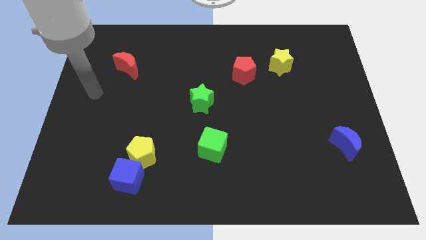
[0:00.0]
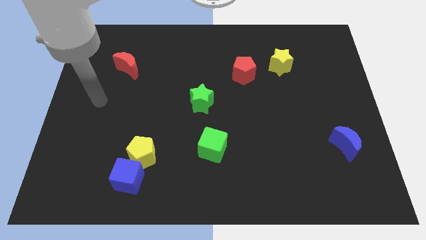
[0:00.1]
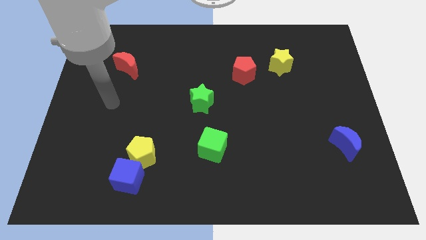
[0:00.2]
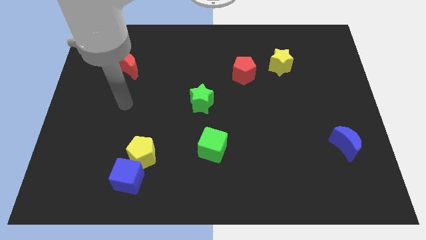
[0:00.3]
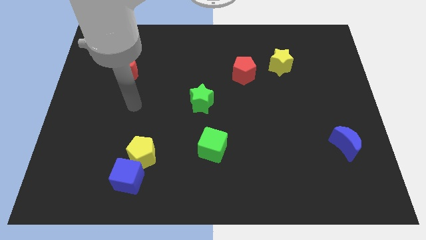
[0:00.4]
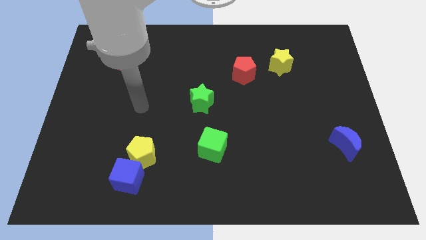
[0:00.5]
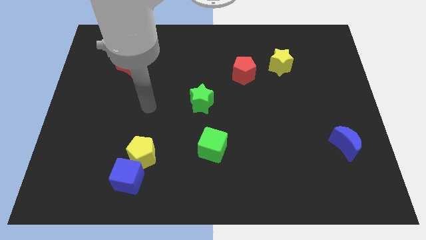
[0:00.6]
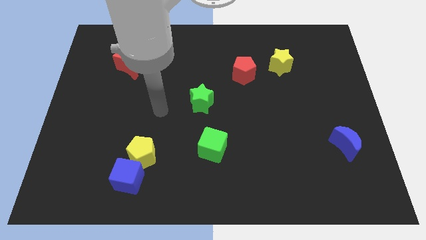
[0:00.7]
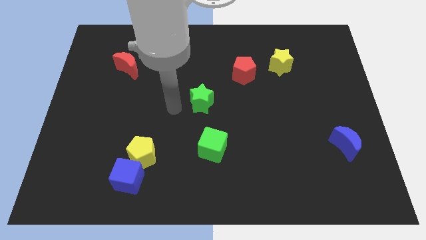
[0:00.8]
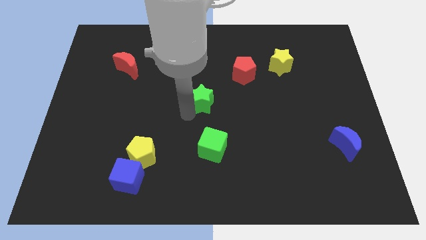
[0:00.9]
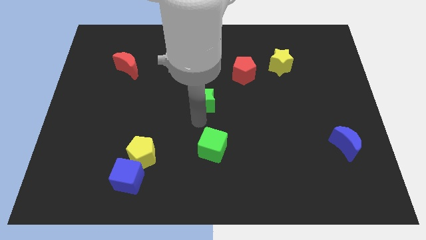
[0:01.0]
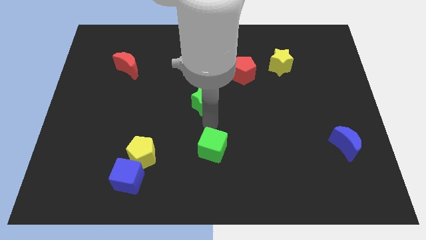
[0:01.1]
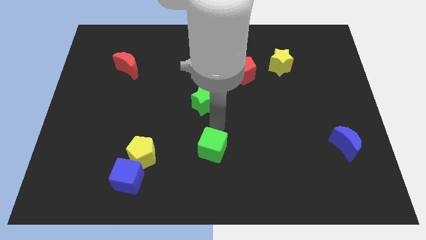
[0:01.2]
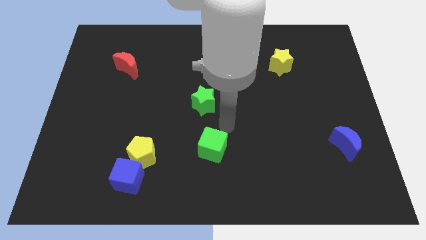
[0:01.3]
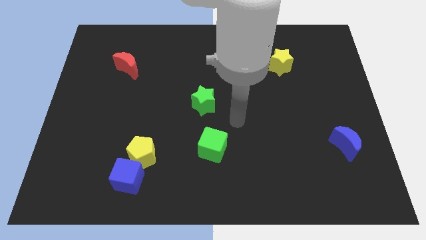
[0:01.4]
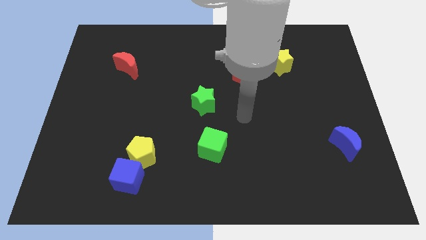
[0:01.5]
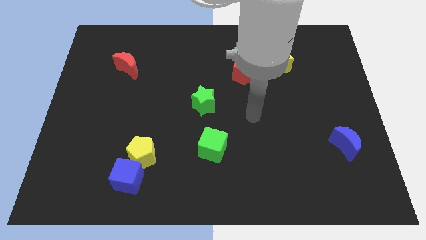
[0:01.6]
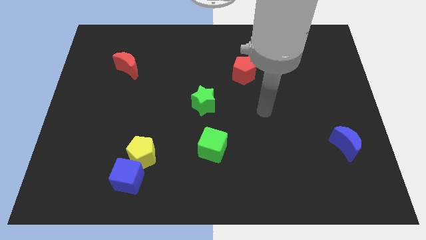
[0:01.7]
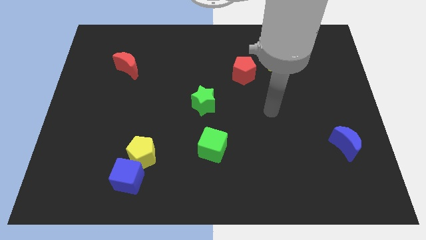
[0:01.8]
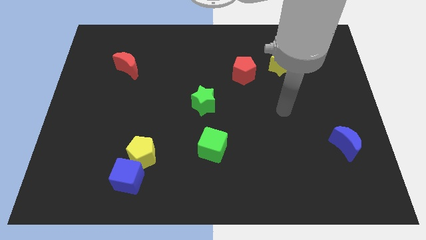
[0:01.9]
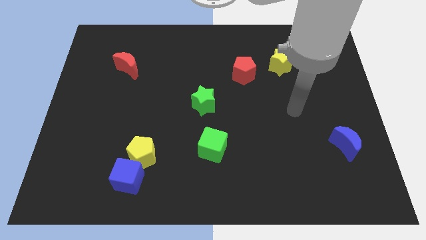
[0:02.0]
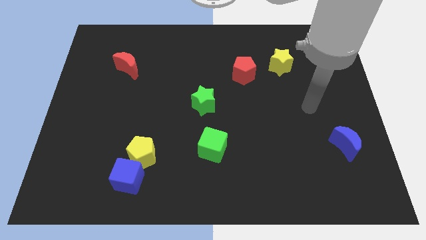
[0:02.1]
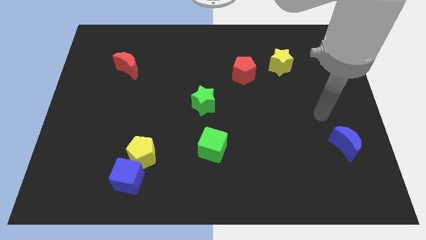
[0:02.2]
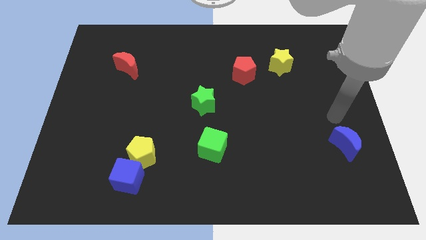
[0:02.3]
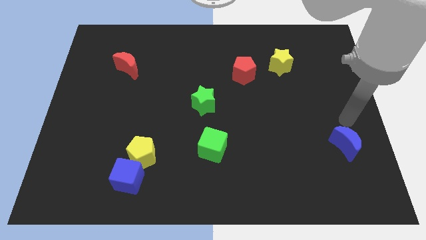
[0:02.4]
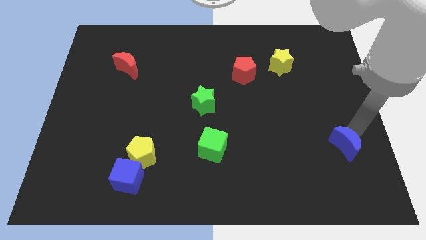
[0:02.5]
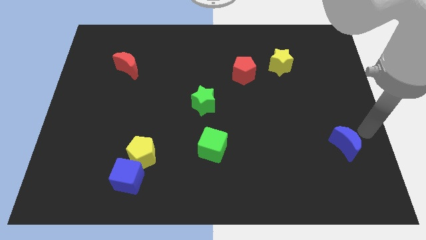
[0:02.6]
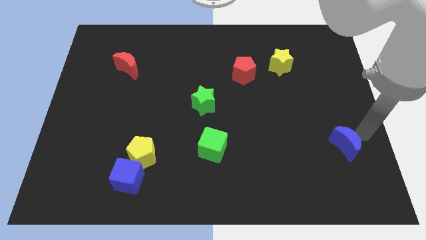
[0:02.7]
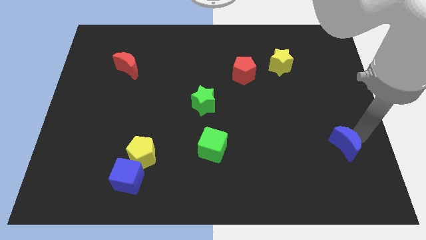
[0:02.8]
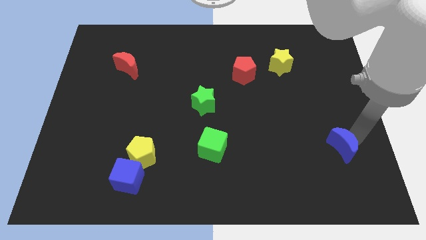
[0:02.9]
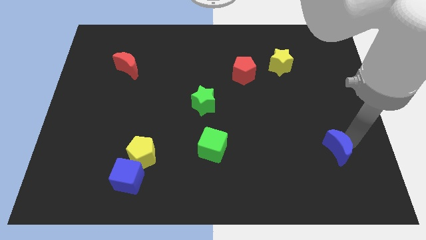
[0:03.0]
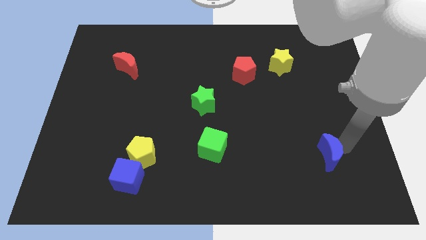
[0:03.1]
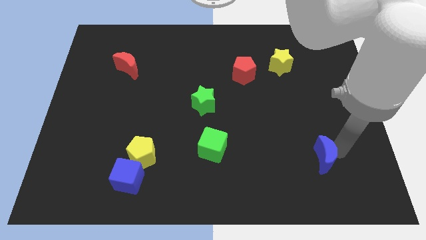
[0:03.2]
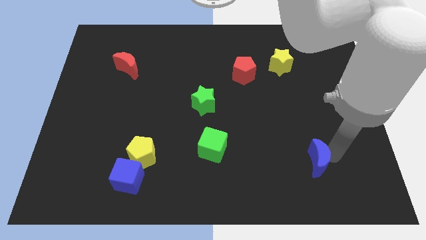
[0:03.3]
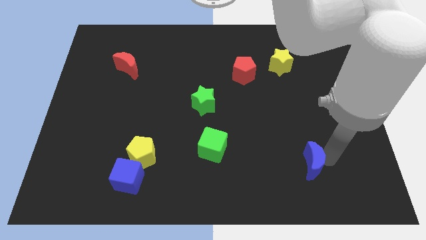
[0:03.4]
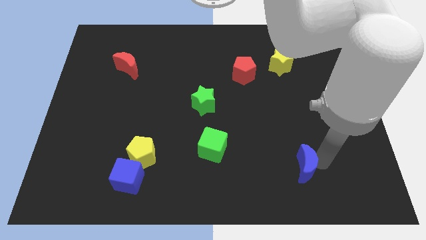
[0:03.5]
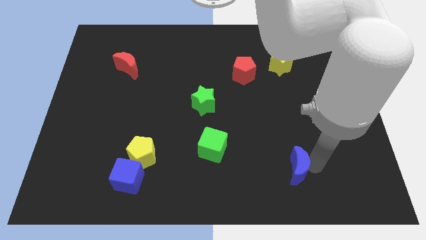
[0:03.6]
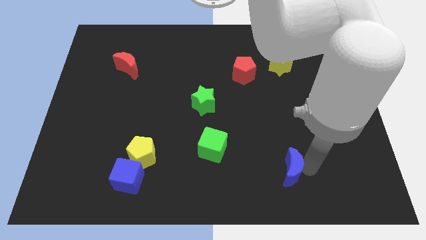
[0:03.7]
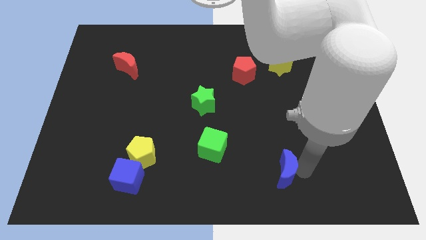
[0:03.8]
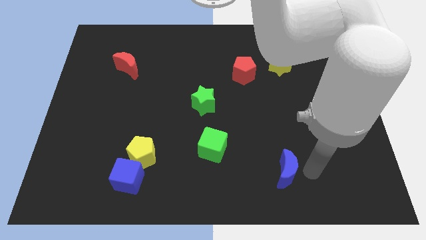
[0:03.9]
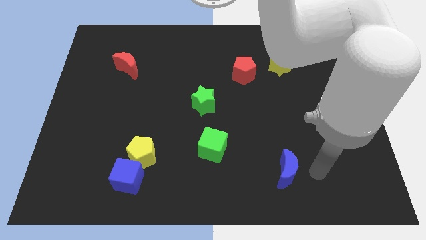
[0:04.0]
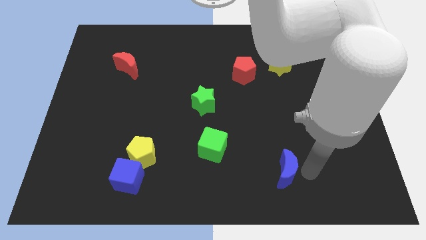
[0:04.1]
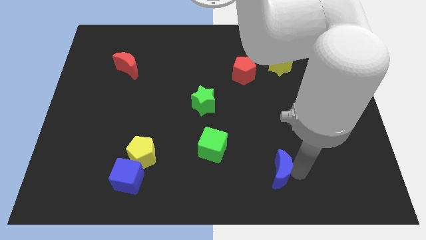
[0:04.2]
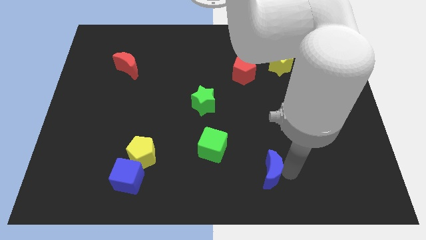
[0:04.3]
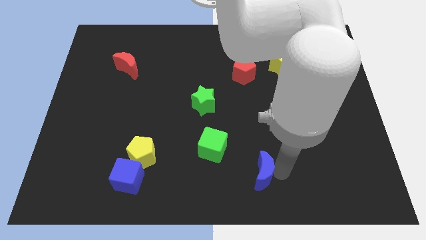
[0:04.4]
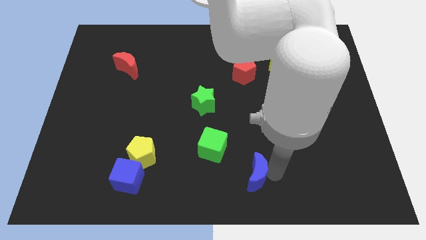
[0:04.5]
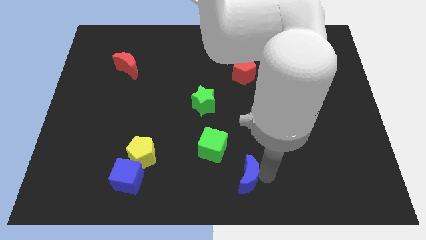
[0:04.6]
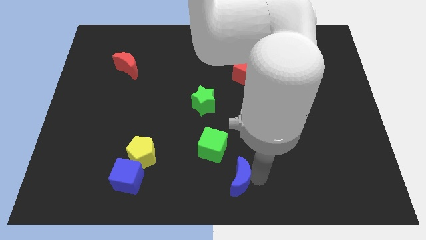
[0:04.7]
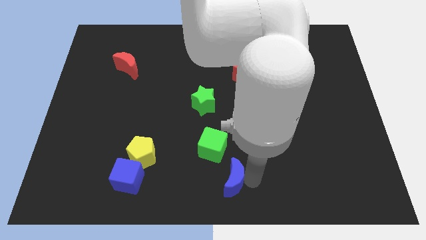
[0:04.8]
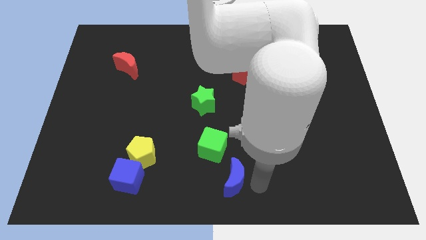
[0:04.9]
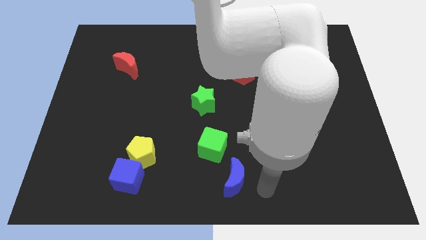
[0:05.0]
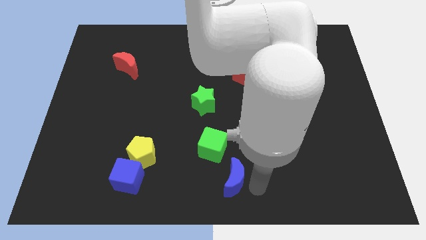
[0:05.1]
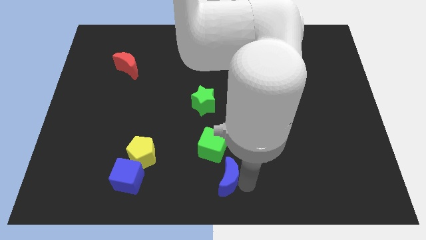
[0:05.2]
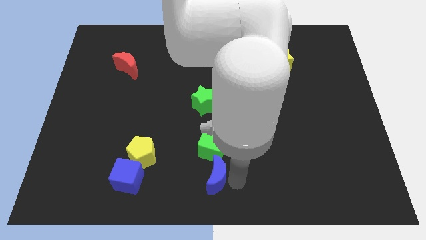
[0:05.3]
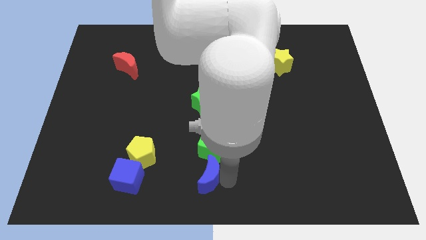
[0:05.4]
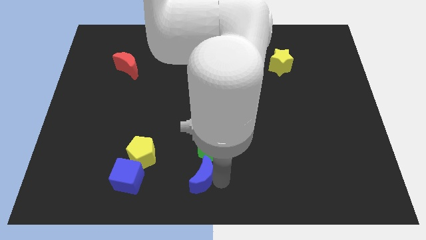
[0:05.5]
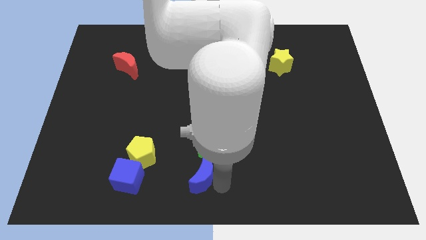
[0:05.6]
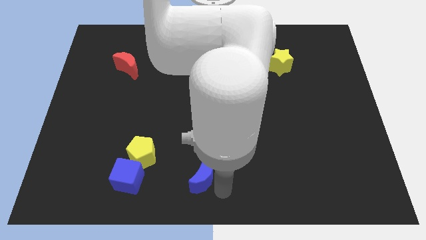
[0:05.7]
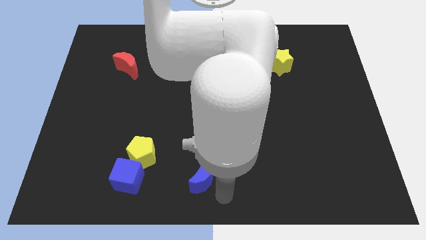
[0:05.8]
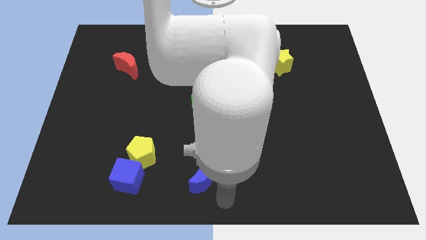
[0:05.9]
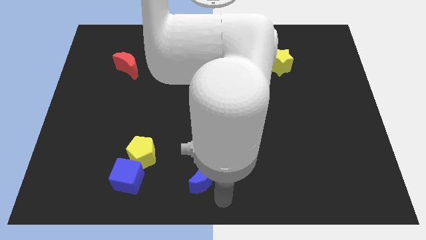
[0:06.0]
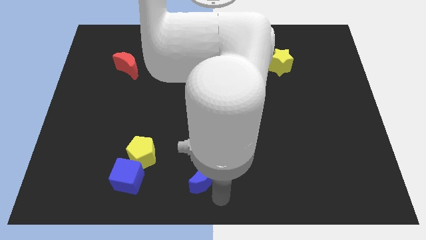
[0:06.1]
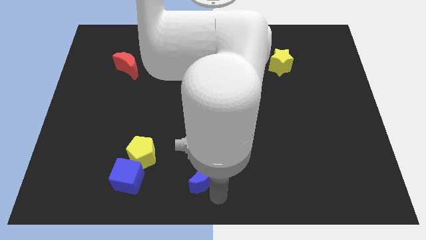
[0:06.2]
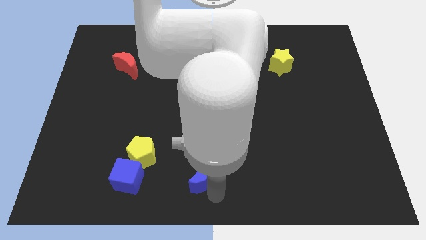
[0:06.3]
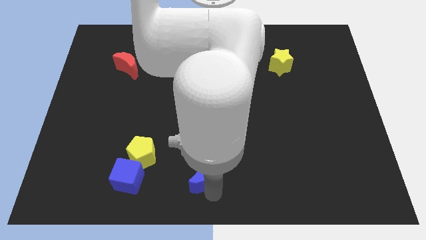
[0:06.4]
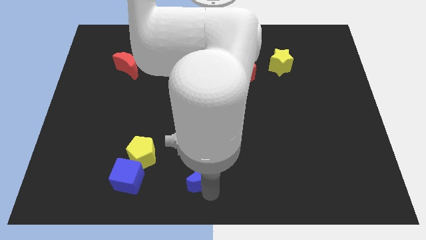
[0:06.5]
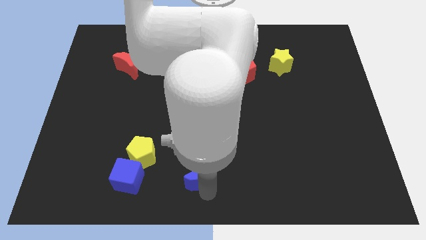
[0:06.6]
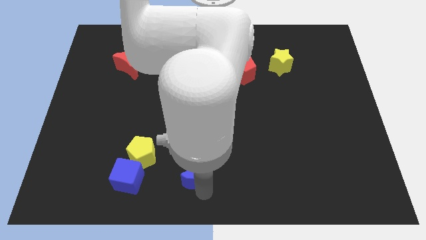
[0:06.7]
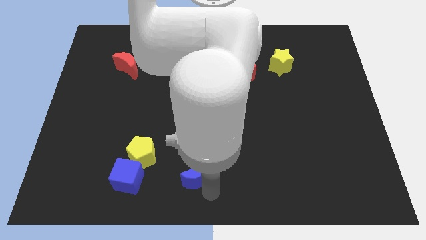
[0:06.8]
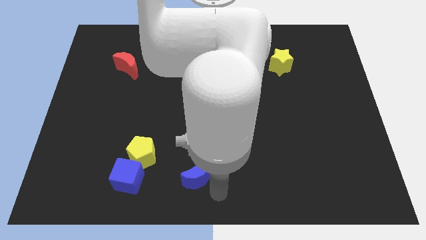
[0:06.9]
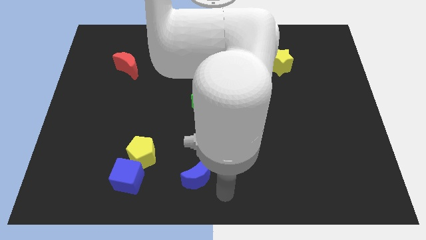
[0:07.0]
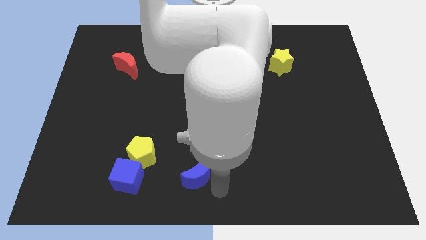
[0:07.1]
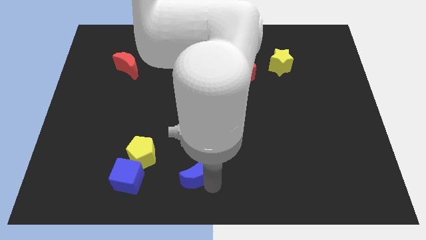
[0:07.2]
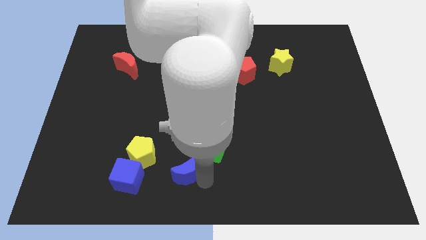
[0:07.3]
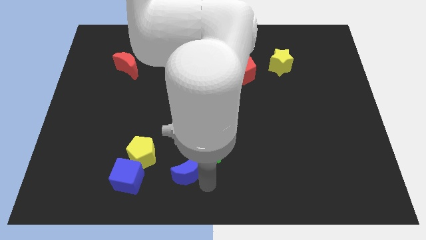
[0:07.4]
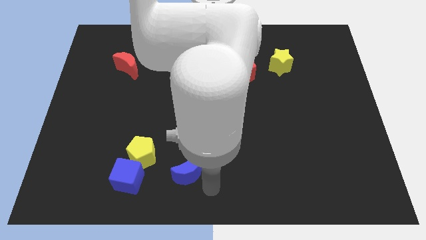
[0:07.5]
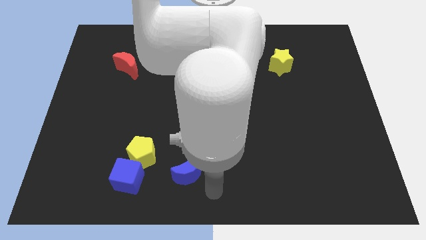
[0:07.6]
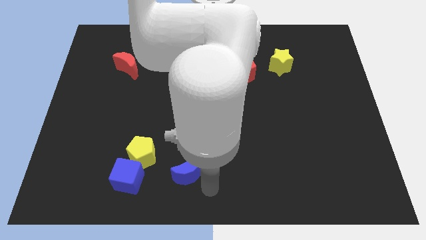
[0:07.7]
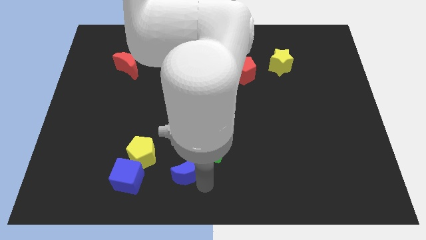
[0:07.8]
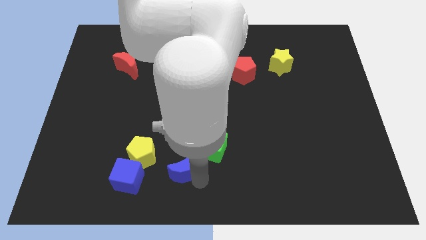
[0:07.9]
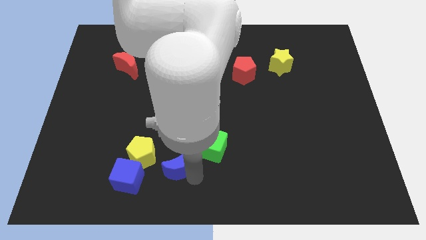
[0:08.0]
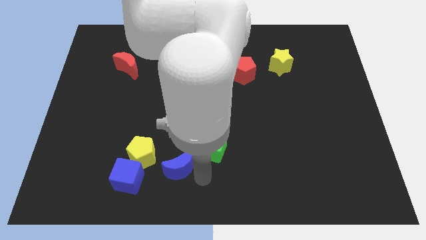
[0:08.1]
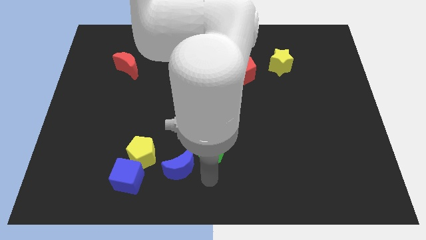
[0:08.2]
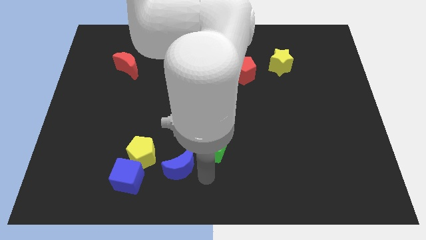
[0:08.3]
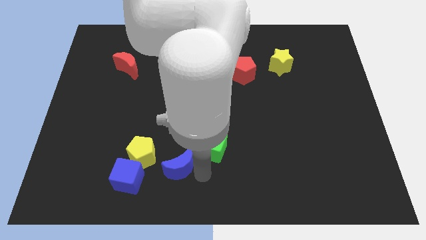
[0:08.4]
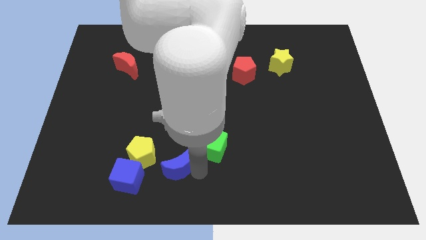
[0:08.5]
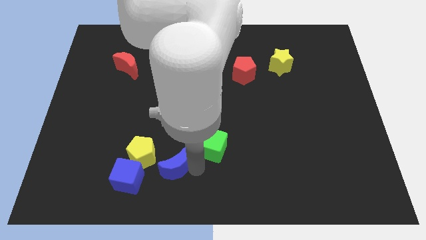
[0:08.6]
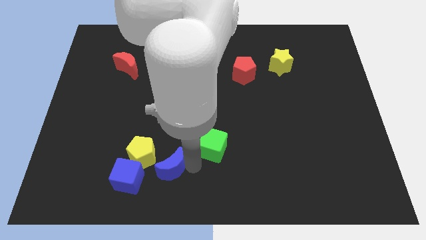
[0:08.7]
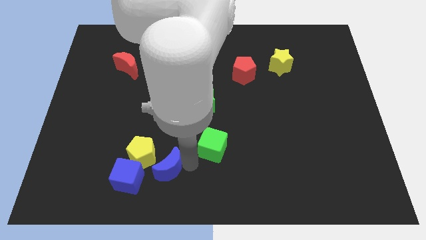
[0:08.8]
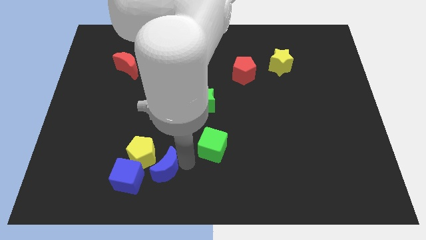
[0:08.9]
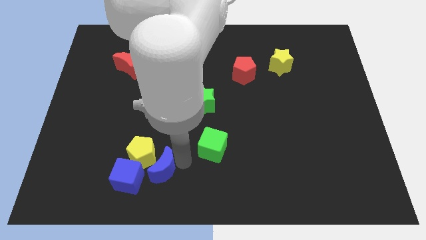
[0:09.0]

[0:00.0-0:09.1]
push the blue moon next to the yellow pentagon
